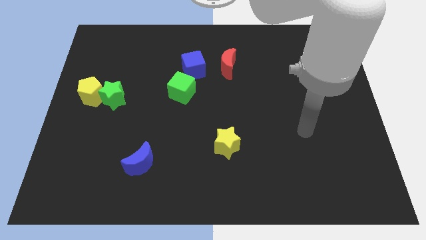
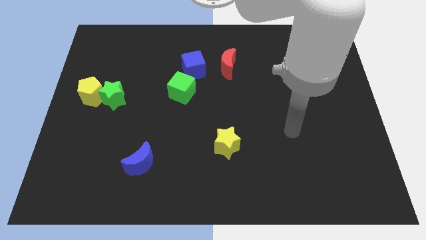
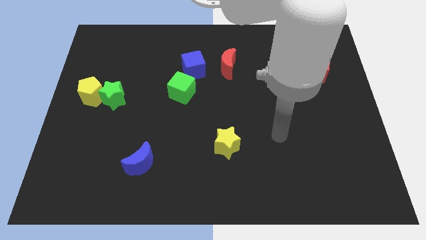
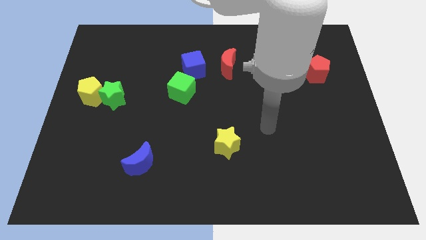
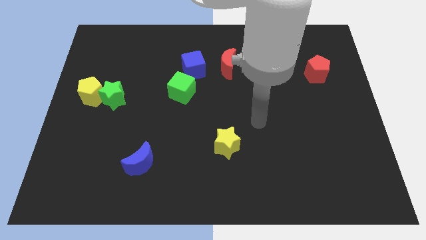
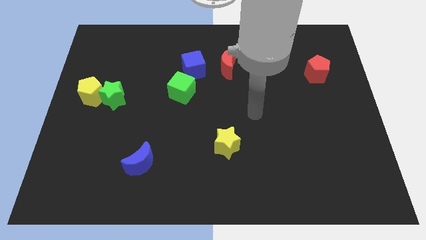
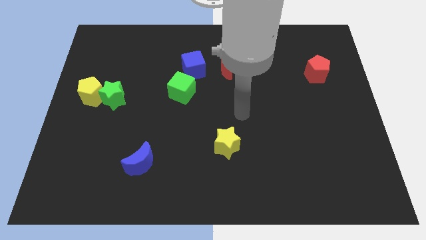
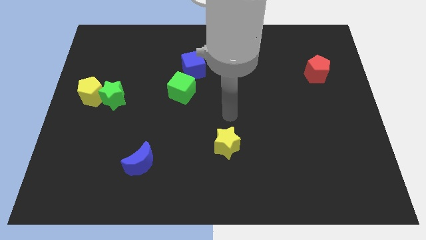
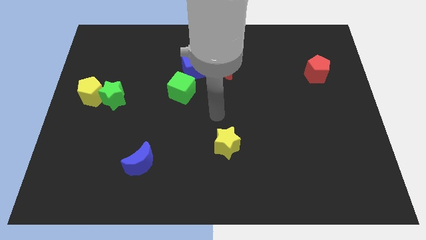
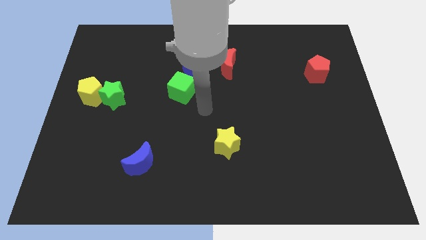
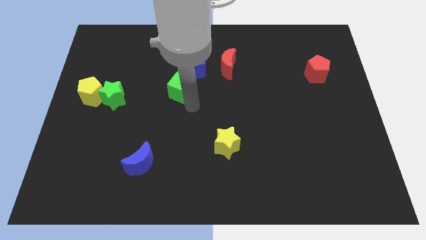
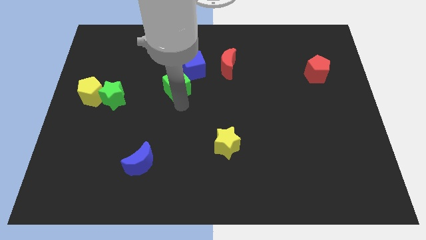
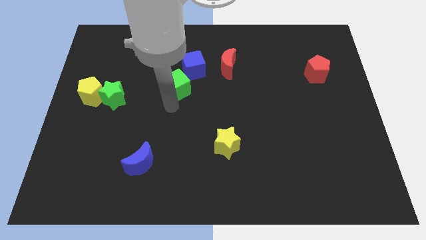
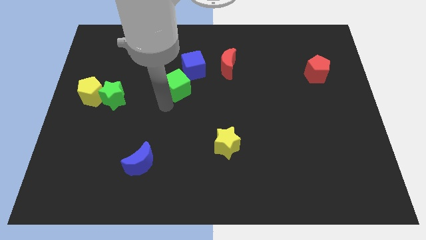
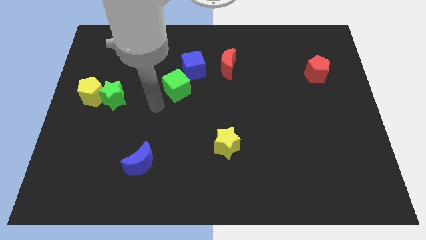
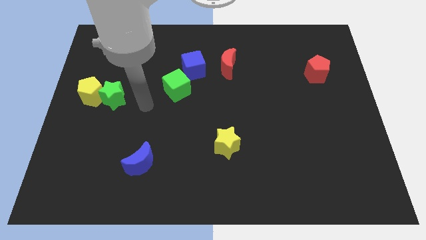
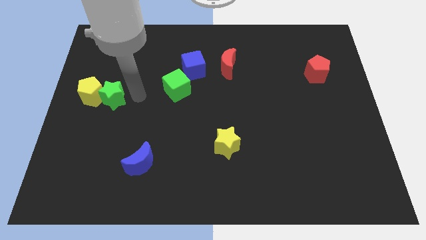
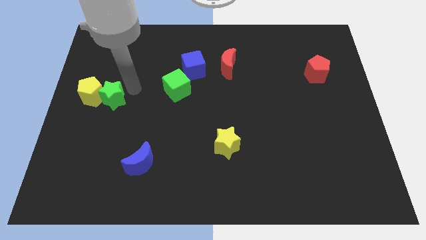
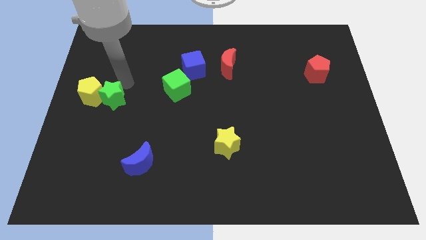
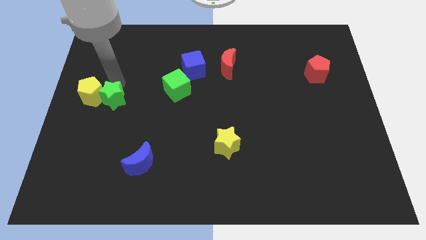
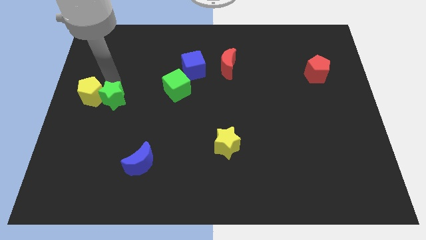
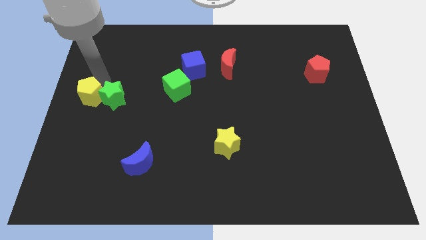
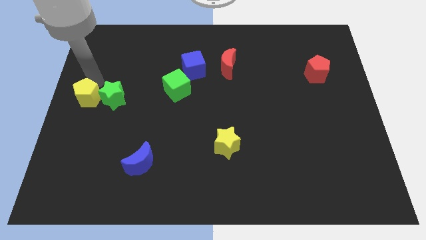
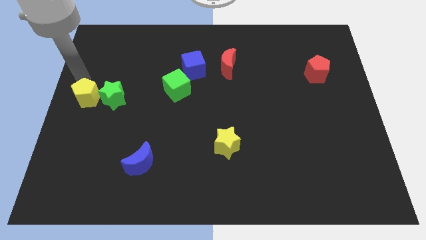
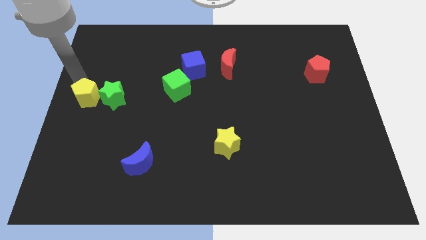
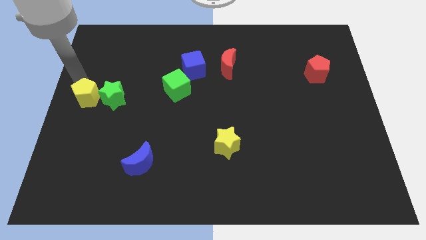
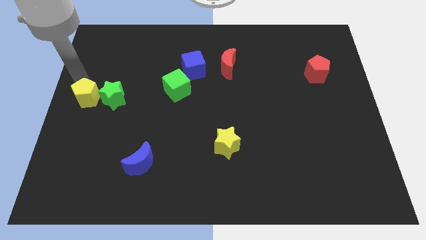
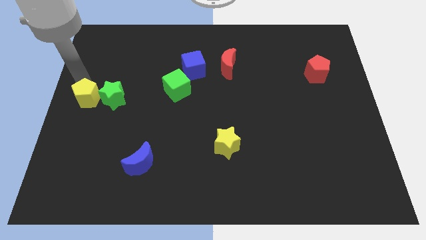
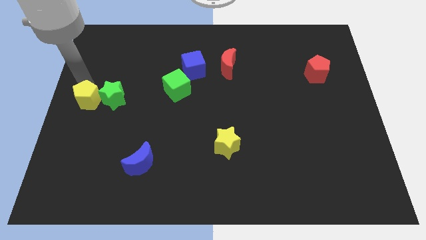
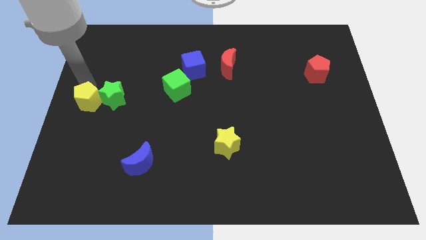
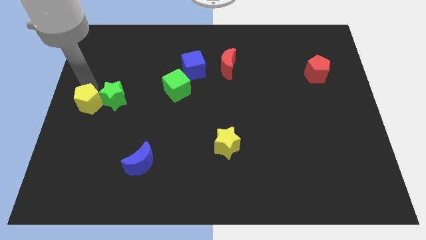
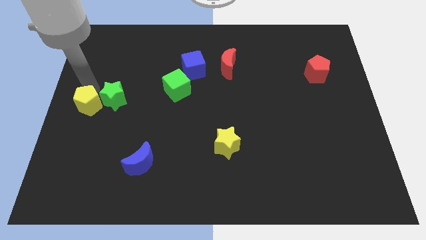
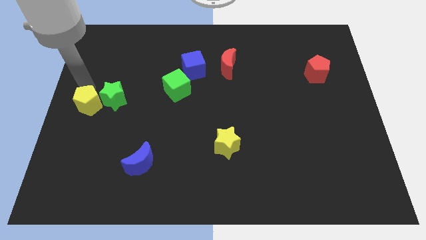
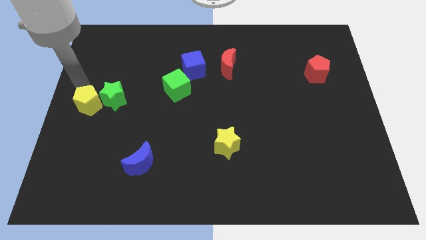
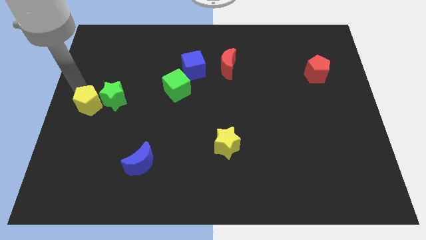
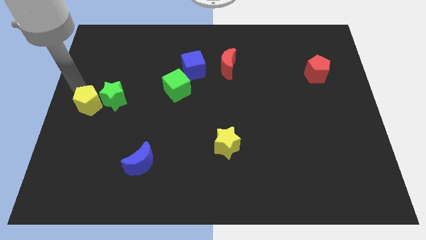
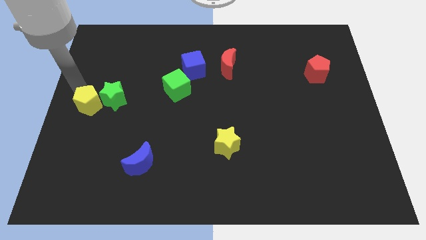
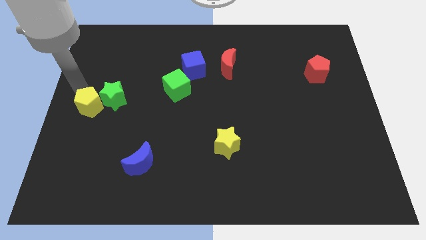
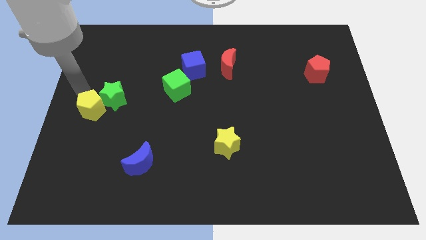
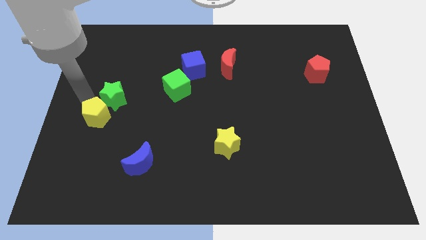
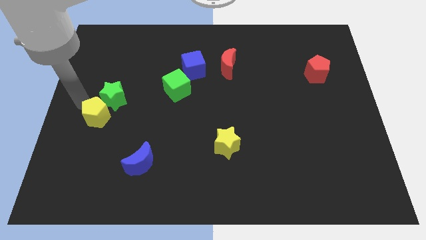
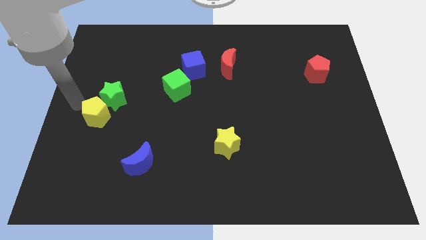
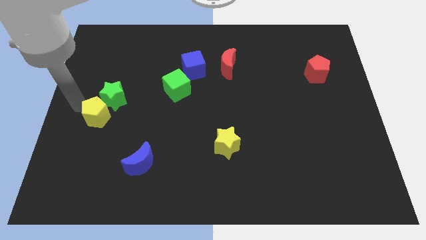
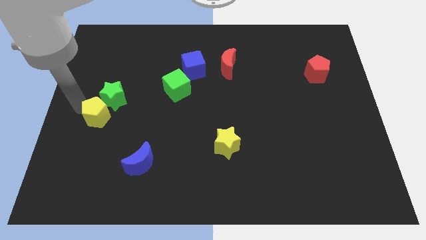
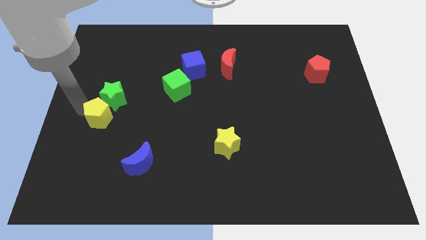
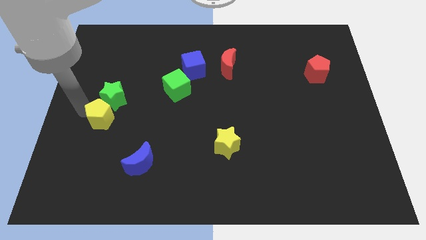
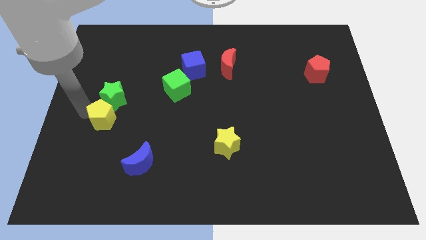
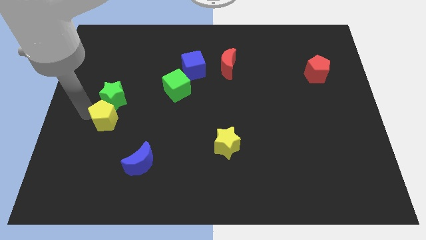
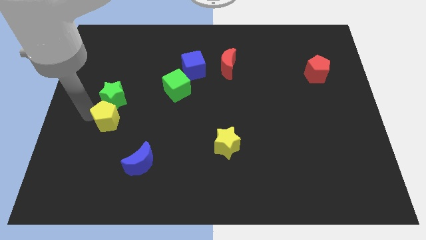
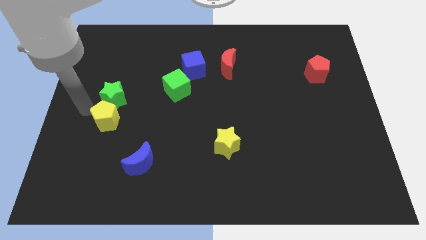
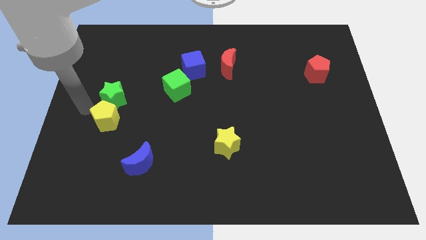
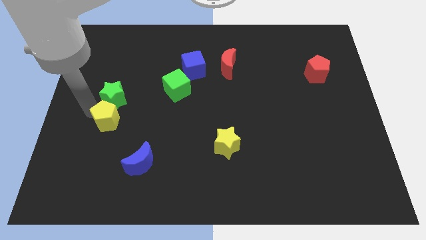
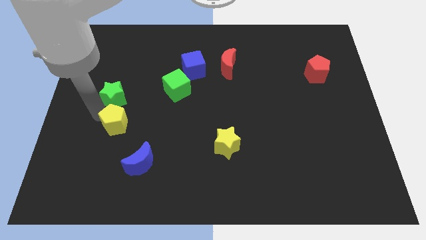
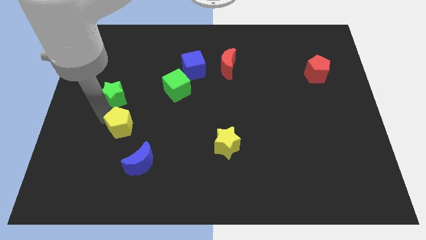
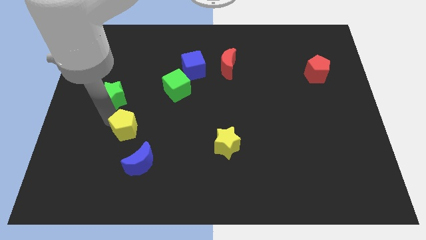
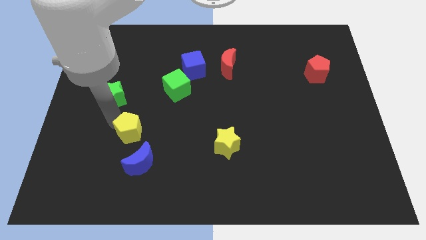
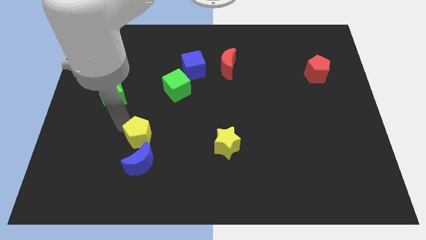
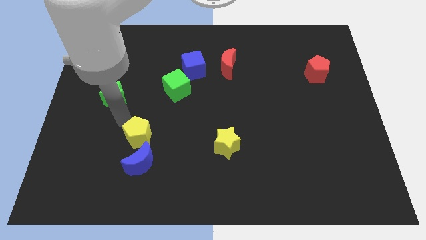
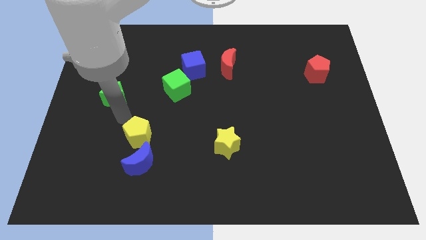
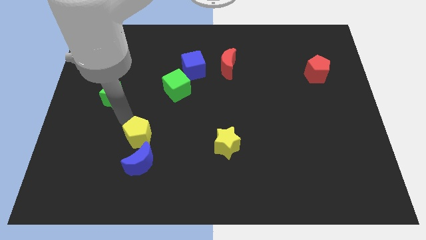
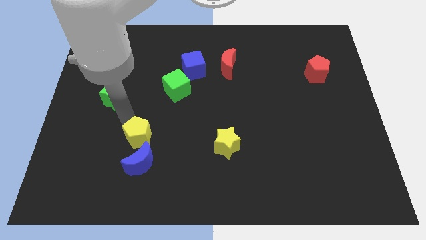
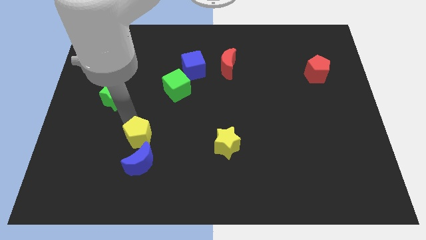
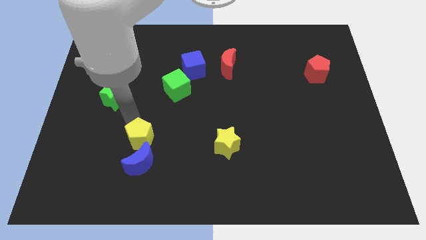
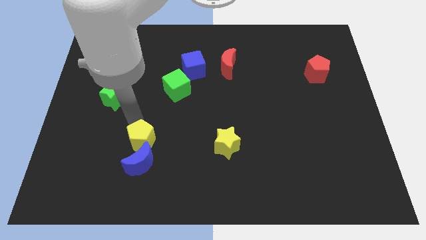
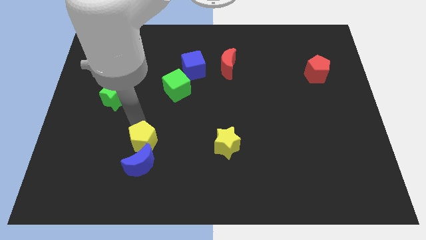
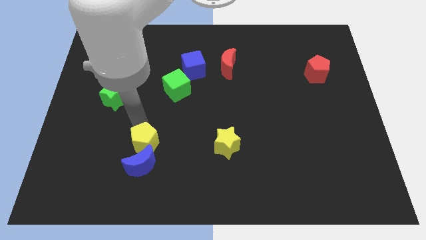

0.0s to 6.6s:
move the yellow pentagon down and then right

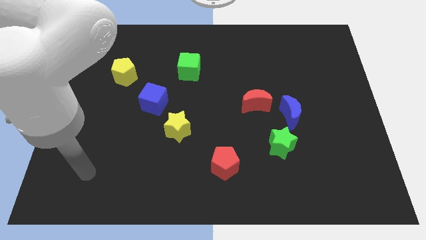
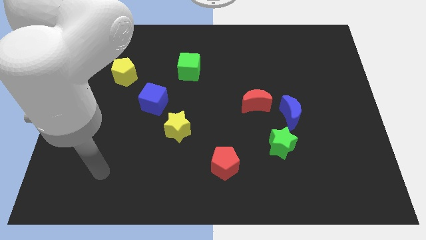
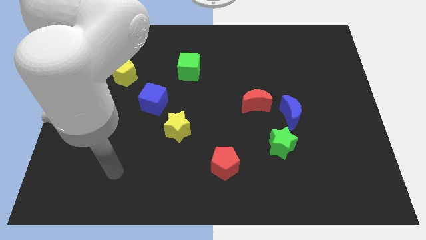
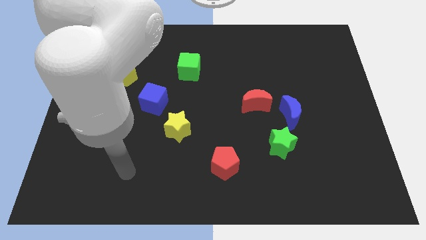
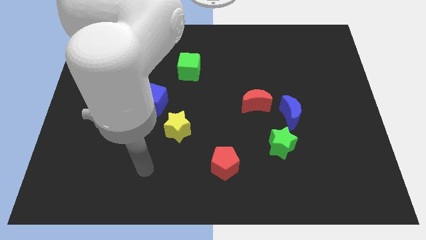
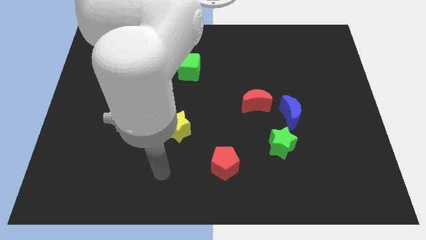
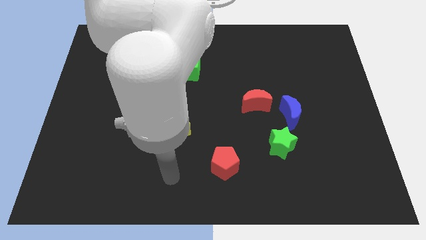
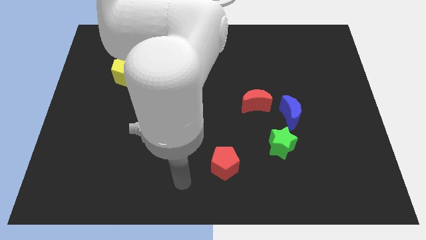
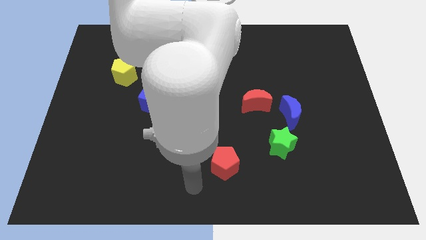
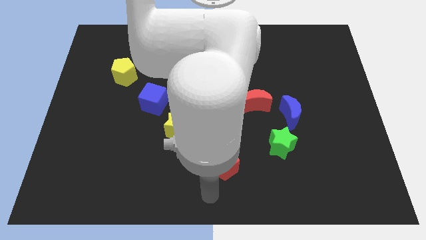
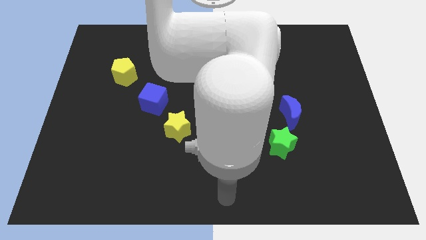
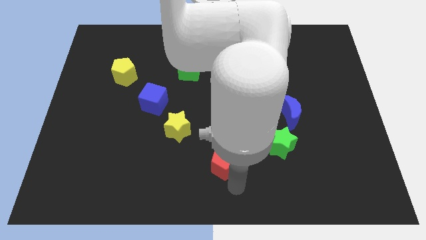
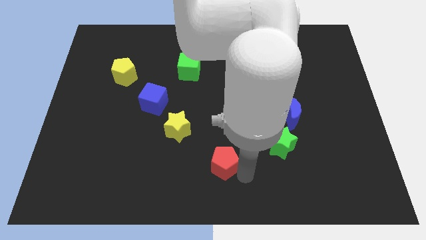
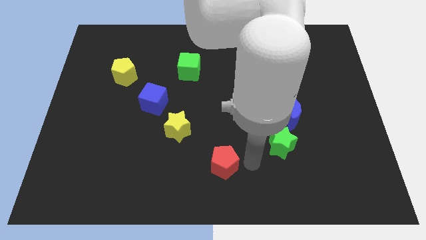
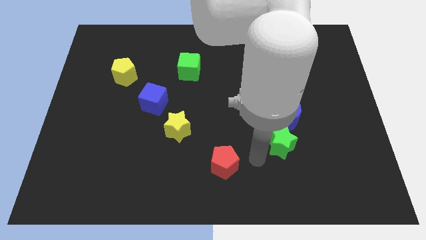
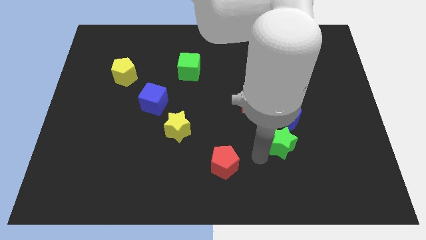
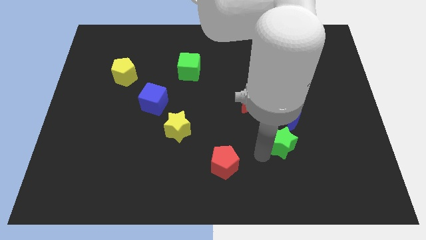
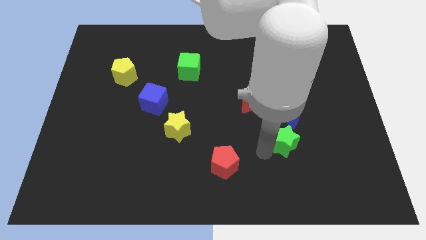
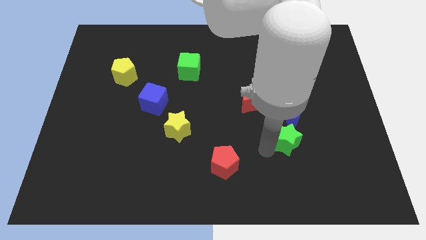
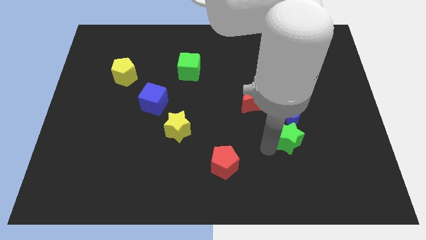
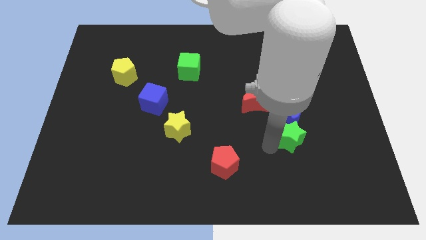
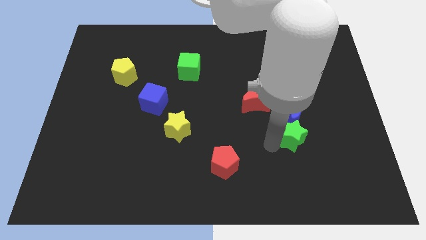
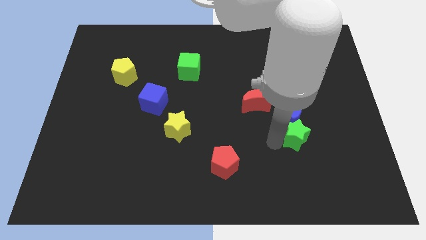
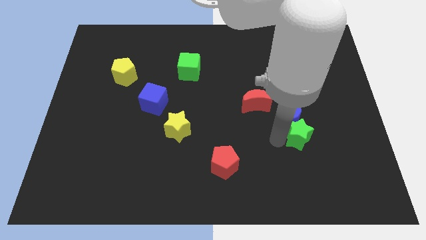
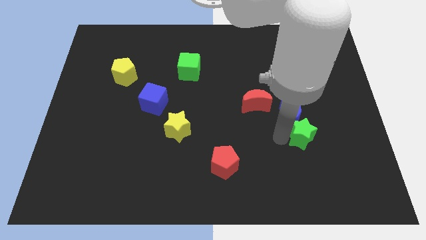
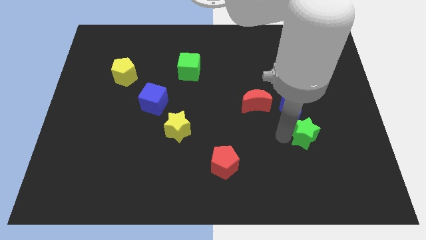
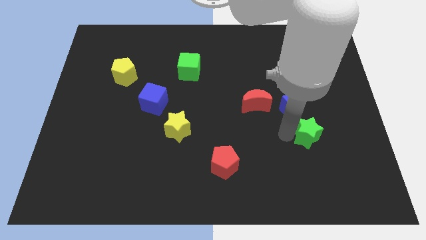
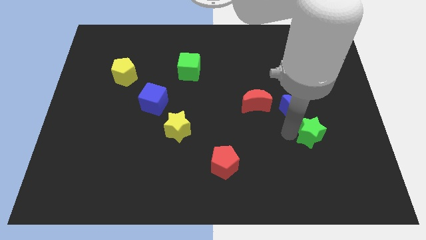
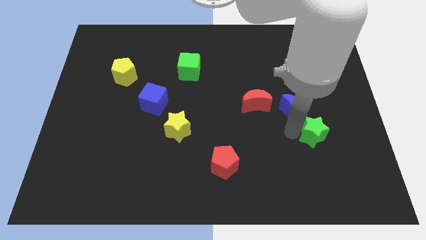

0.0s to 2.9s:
push the green star somewhat diagonally upwards and right
